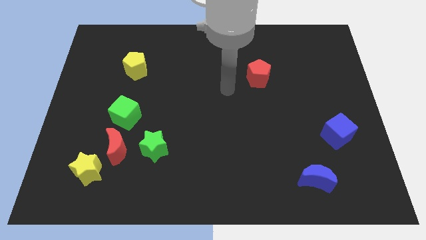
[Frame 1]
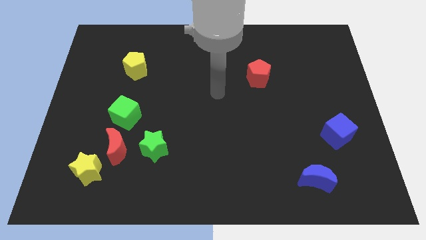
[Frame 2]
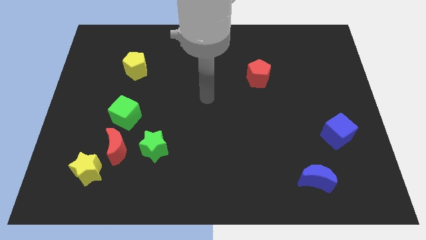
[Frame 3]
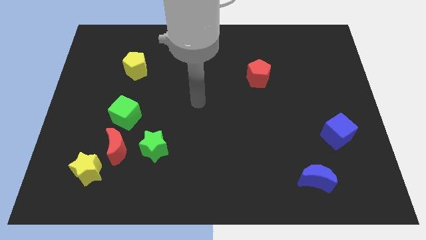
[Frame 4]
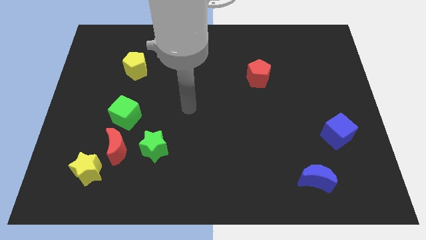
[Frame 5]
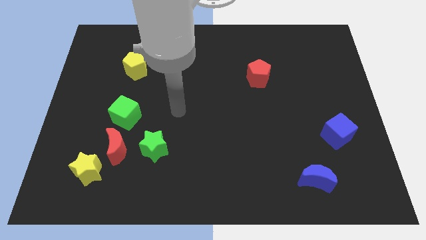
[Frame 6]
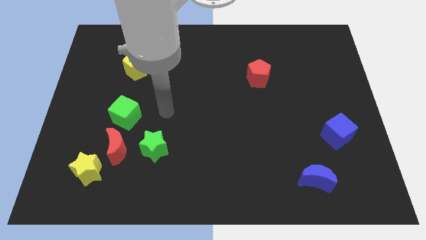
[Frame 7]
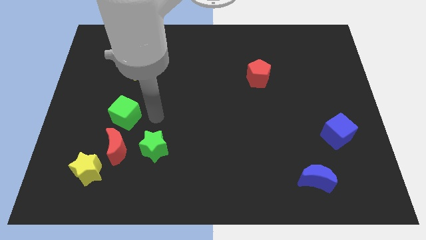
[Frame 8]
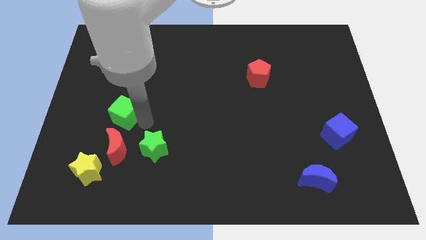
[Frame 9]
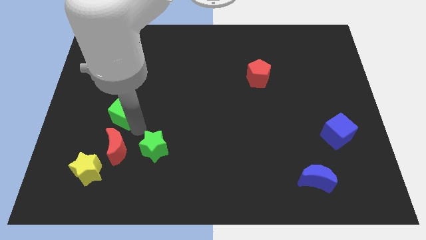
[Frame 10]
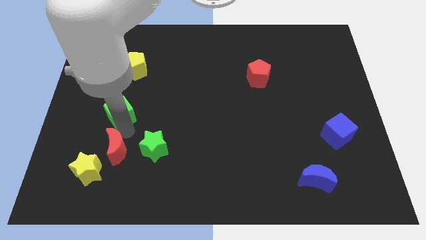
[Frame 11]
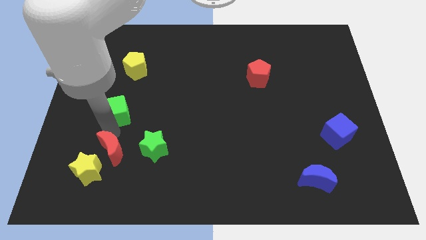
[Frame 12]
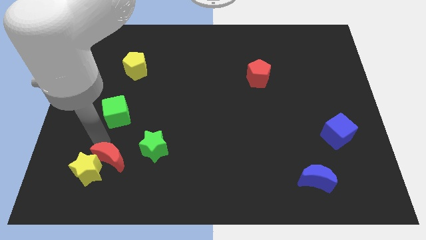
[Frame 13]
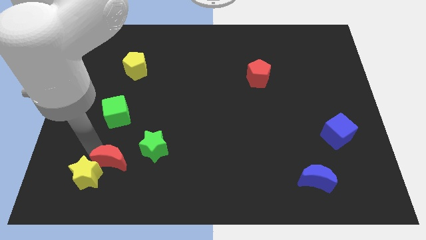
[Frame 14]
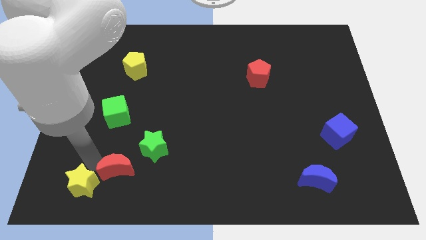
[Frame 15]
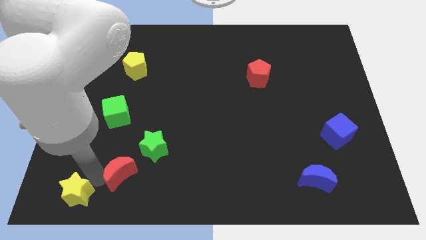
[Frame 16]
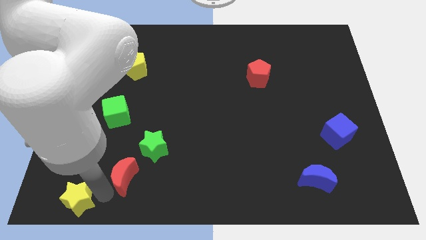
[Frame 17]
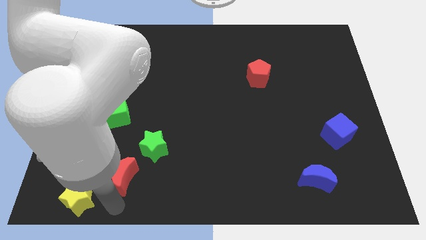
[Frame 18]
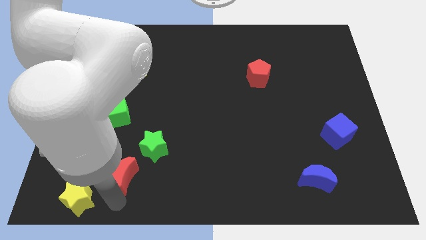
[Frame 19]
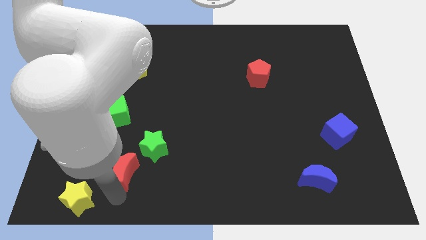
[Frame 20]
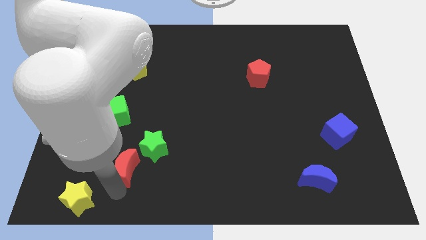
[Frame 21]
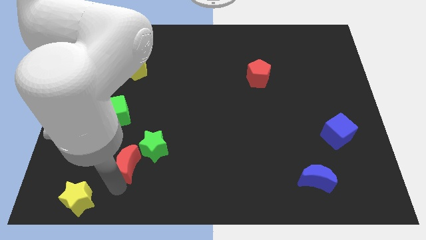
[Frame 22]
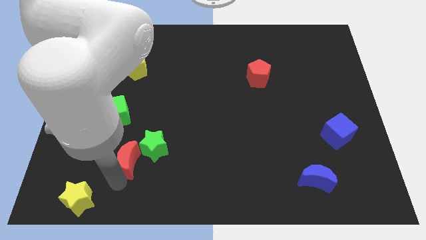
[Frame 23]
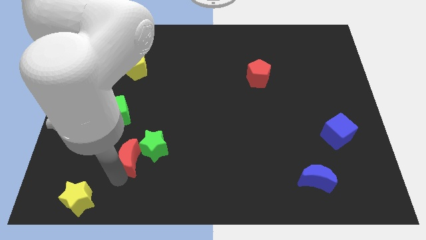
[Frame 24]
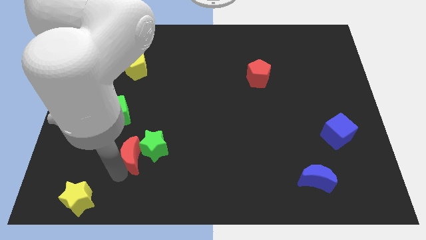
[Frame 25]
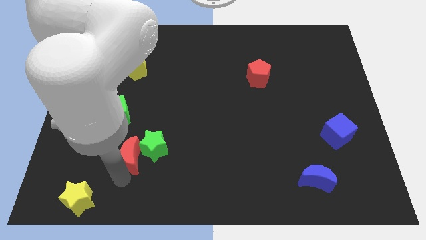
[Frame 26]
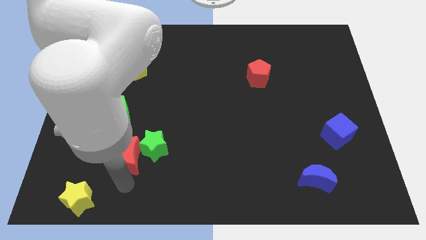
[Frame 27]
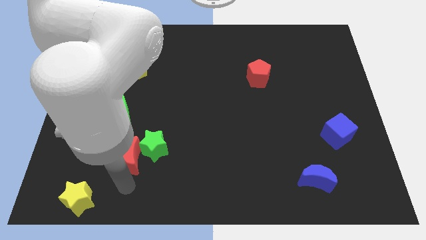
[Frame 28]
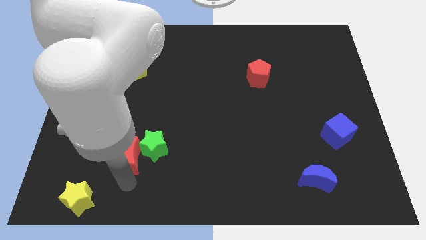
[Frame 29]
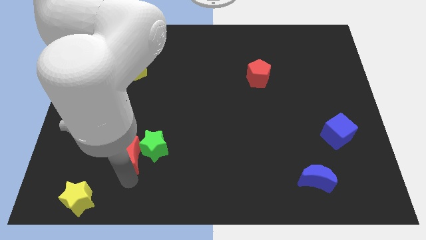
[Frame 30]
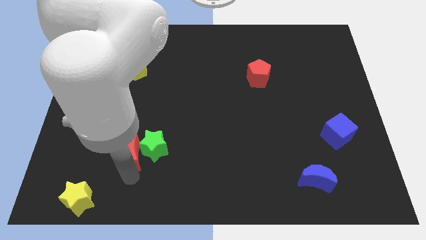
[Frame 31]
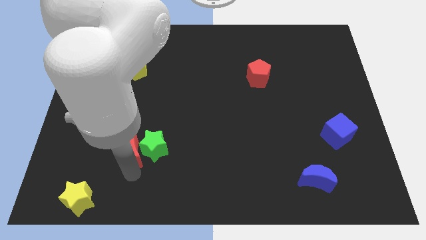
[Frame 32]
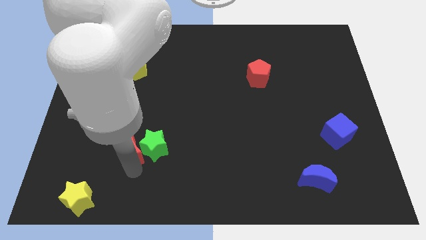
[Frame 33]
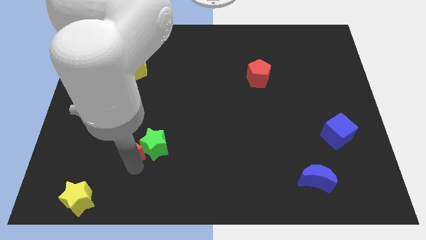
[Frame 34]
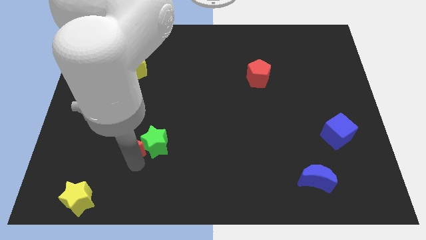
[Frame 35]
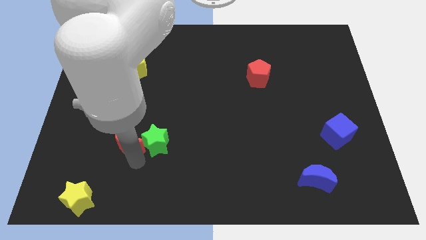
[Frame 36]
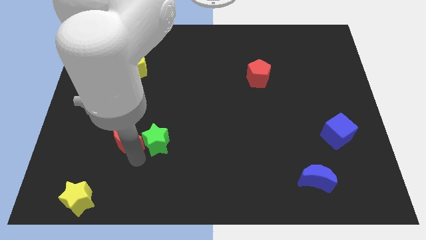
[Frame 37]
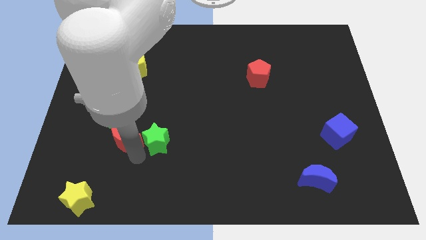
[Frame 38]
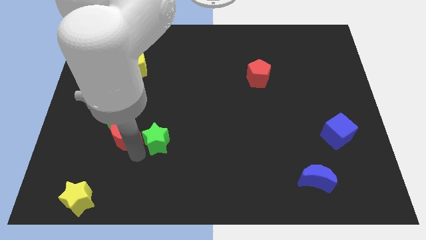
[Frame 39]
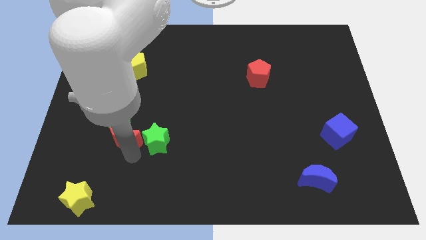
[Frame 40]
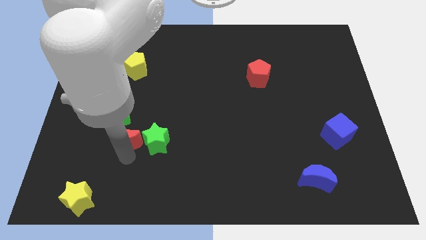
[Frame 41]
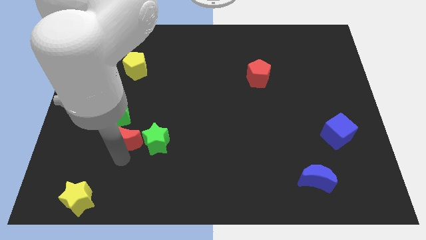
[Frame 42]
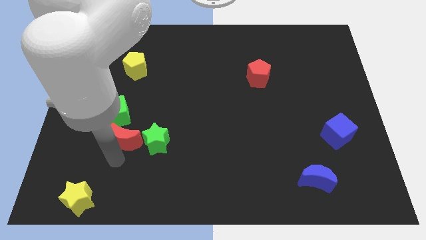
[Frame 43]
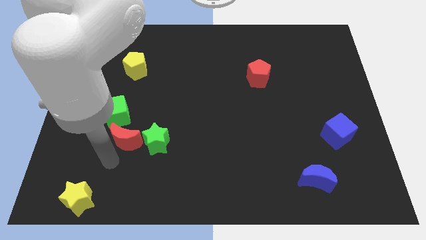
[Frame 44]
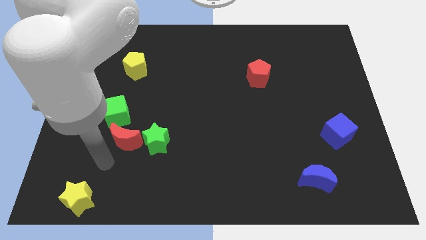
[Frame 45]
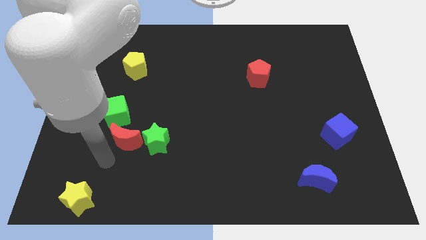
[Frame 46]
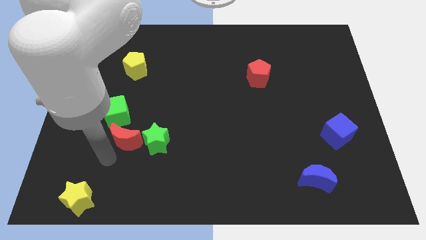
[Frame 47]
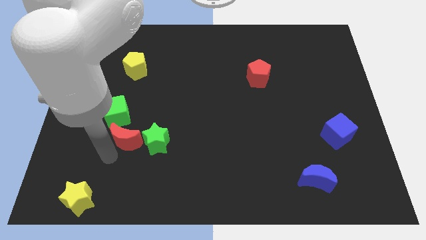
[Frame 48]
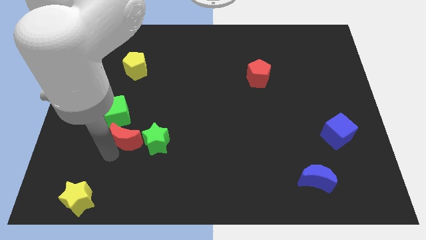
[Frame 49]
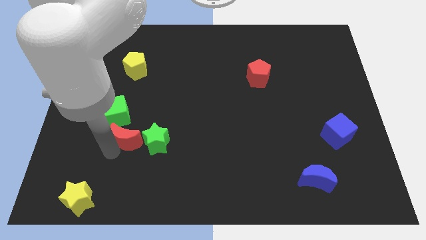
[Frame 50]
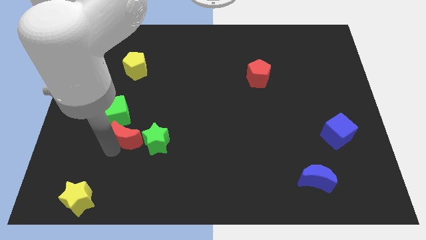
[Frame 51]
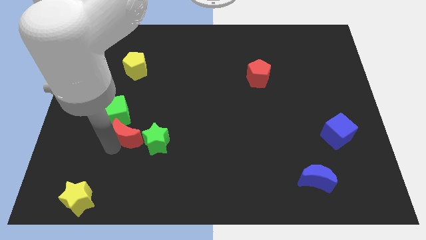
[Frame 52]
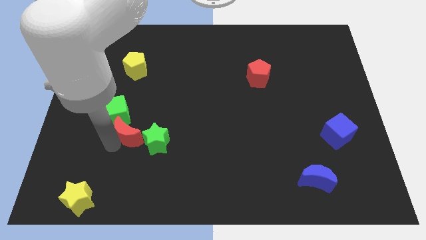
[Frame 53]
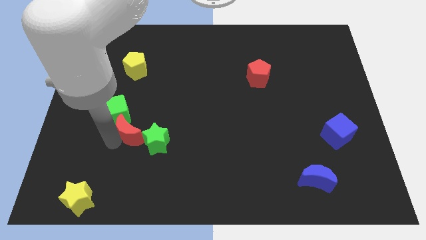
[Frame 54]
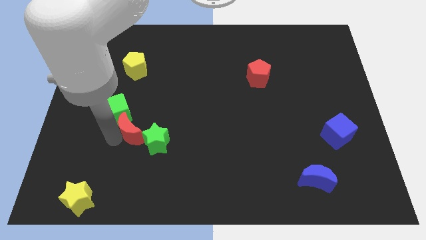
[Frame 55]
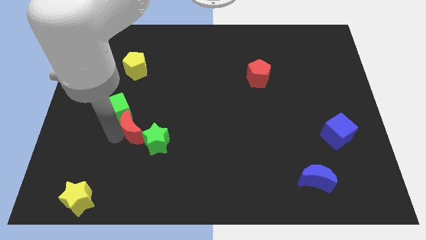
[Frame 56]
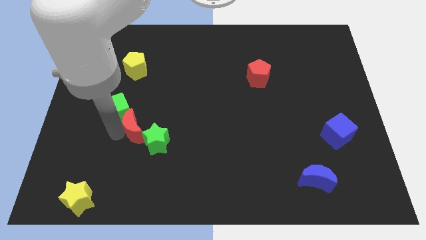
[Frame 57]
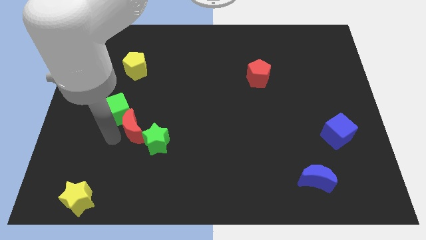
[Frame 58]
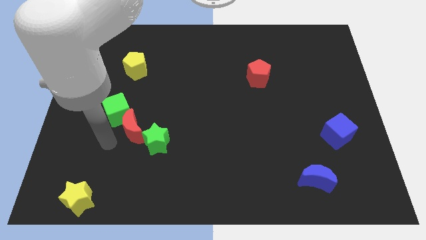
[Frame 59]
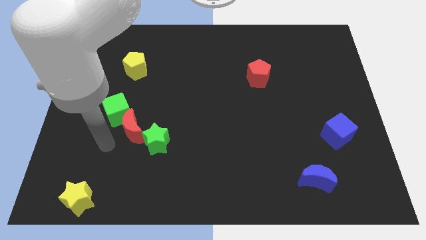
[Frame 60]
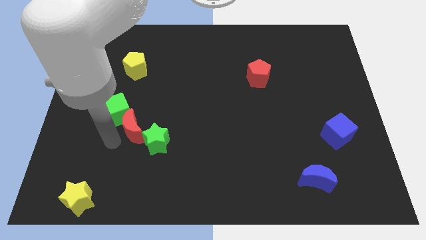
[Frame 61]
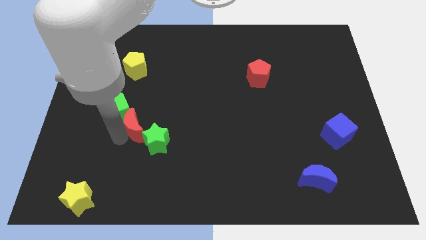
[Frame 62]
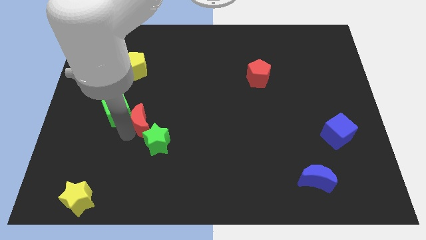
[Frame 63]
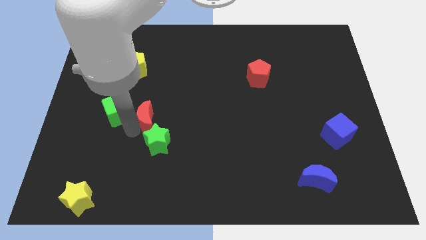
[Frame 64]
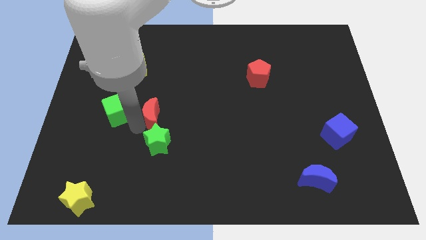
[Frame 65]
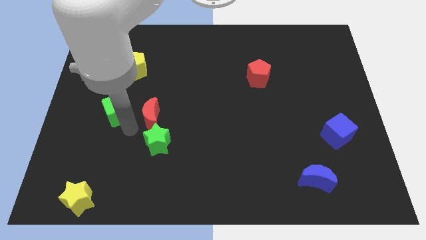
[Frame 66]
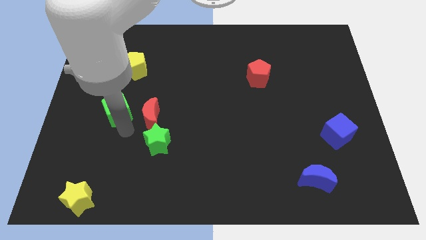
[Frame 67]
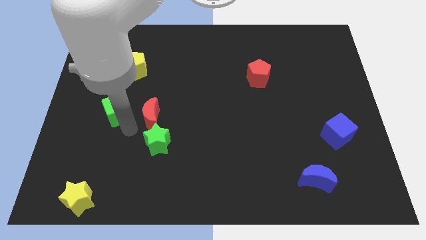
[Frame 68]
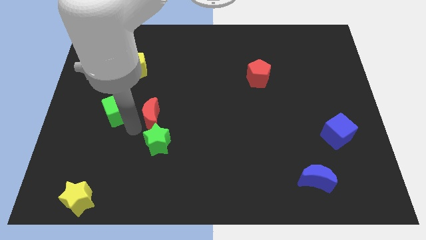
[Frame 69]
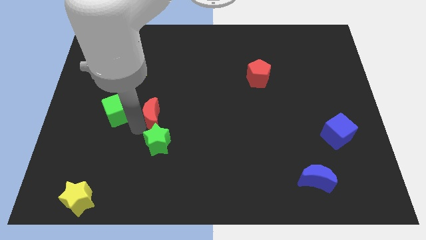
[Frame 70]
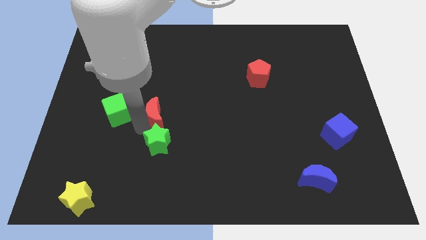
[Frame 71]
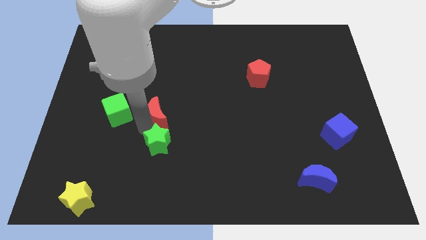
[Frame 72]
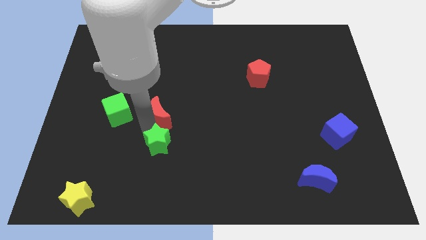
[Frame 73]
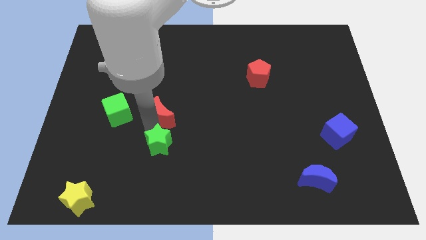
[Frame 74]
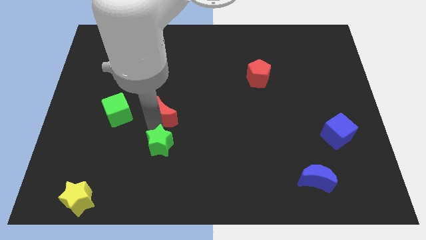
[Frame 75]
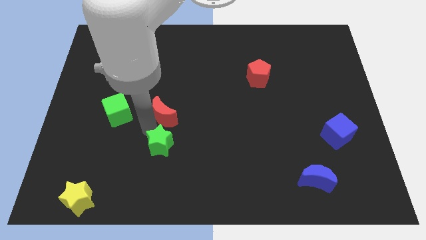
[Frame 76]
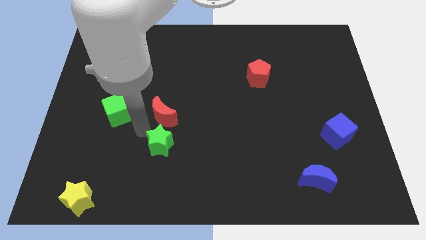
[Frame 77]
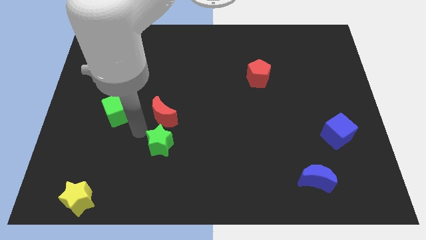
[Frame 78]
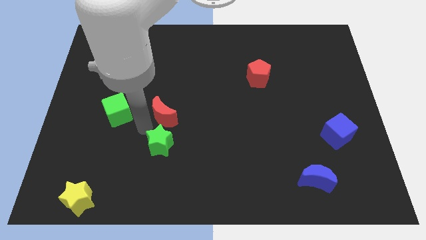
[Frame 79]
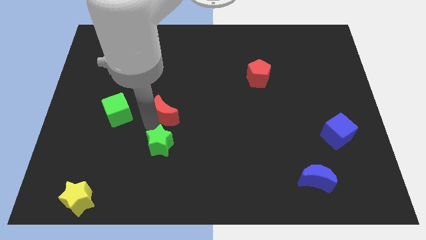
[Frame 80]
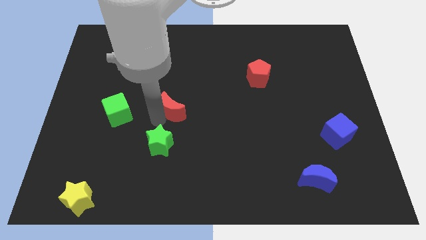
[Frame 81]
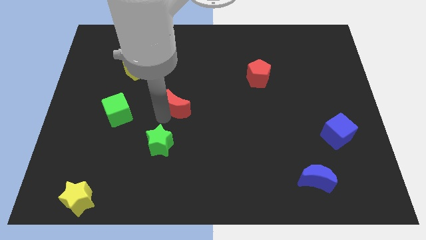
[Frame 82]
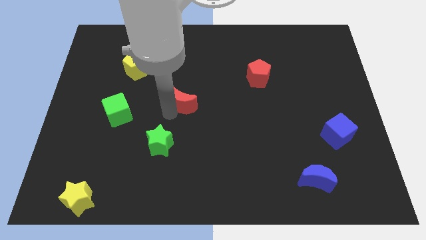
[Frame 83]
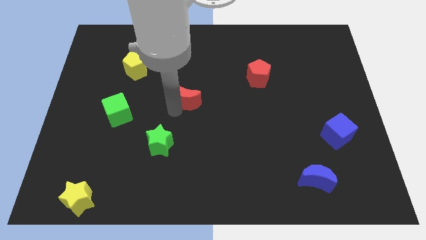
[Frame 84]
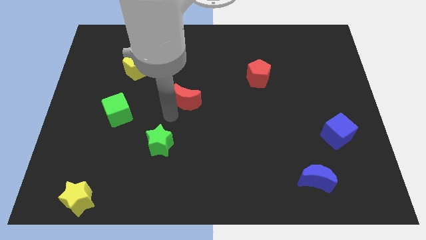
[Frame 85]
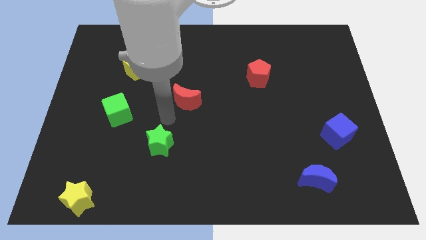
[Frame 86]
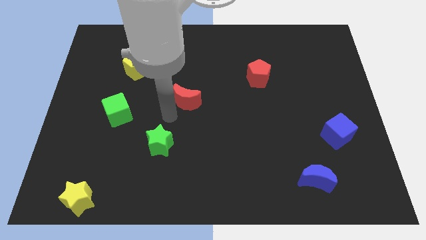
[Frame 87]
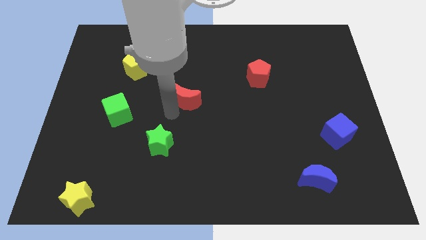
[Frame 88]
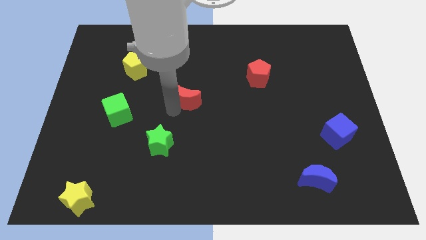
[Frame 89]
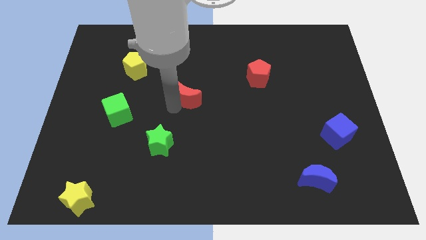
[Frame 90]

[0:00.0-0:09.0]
slide the red moon upwards and then right
